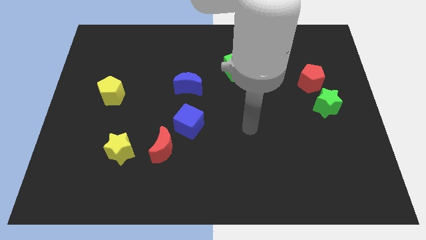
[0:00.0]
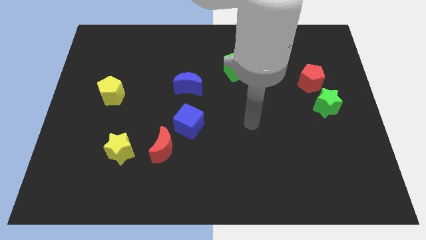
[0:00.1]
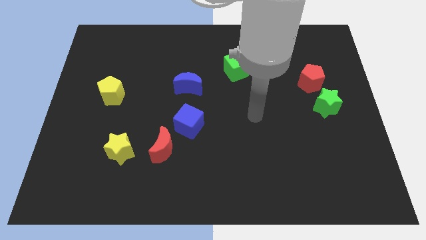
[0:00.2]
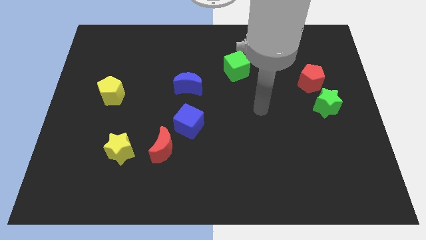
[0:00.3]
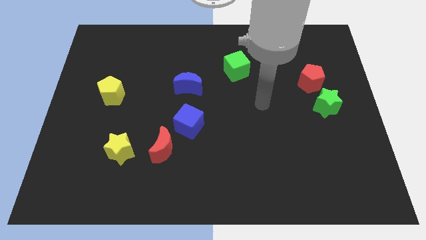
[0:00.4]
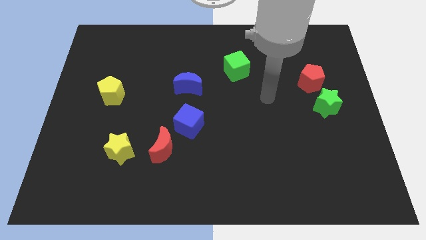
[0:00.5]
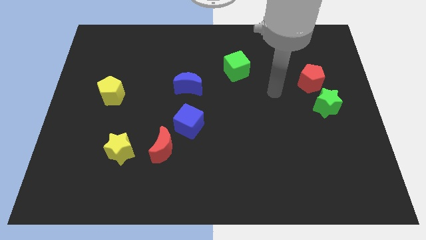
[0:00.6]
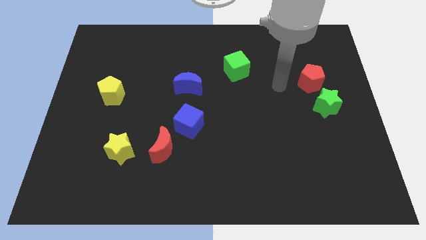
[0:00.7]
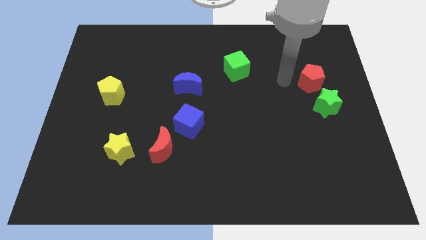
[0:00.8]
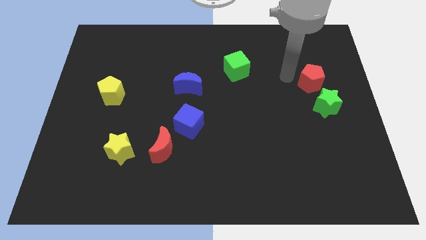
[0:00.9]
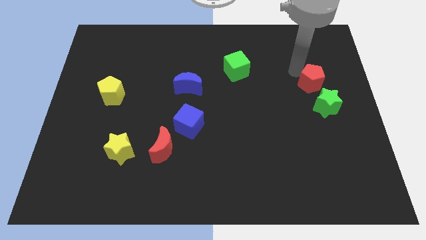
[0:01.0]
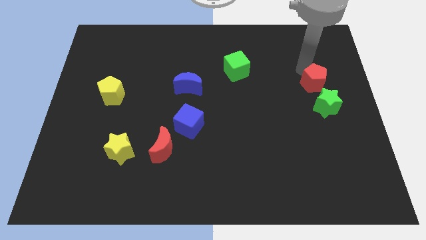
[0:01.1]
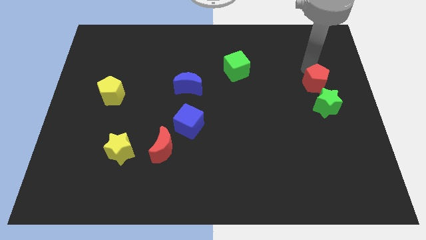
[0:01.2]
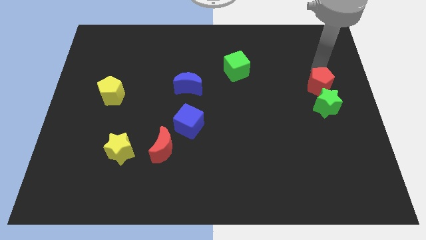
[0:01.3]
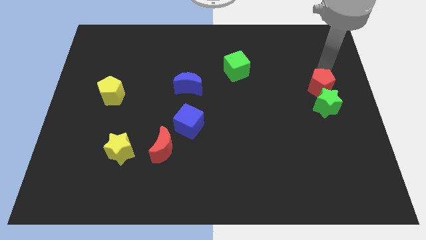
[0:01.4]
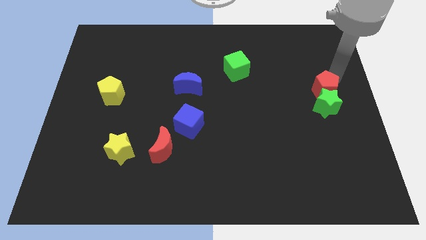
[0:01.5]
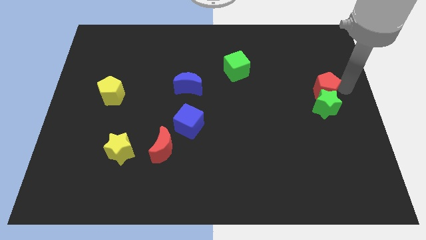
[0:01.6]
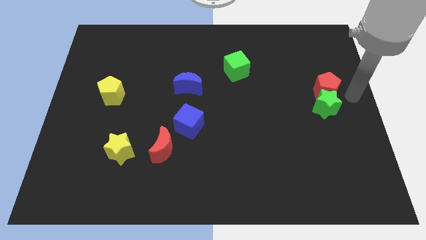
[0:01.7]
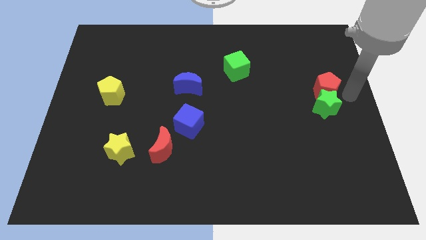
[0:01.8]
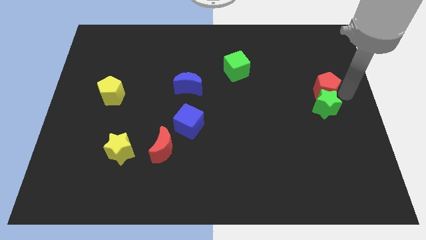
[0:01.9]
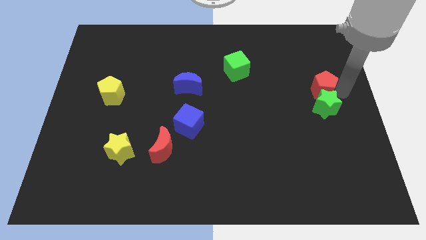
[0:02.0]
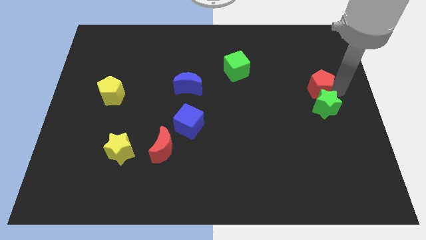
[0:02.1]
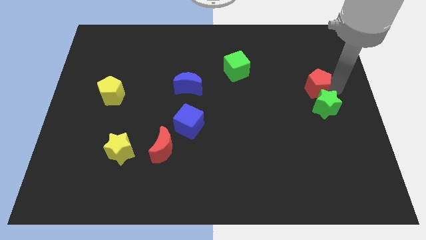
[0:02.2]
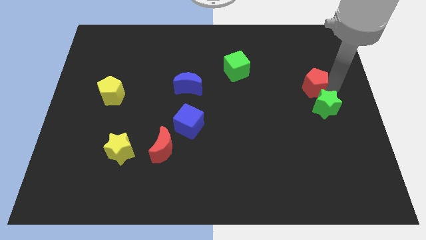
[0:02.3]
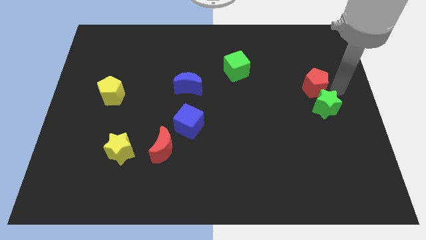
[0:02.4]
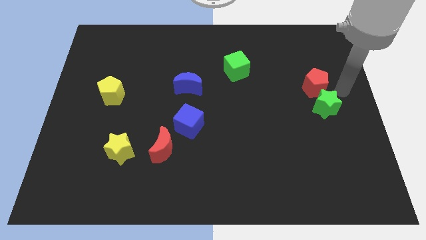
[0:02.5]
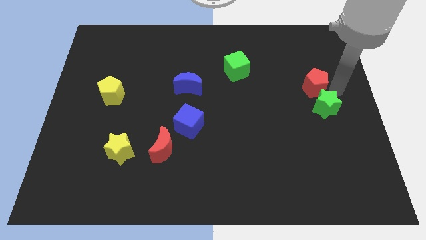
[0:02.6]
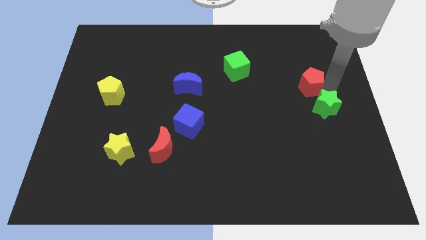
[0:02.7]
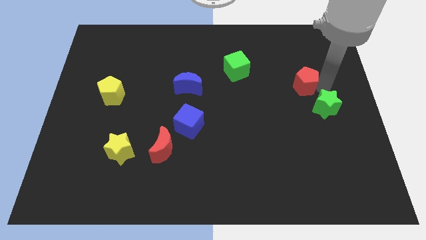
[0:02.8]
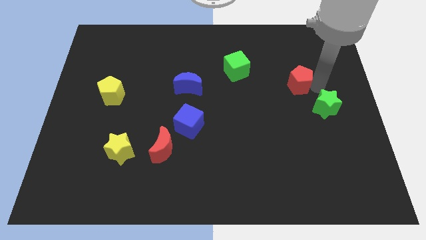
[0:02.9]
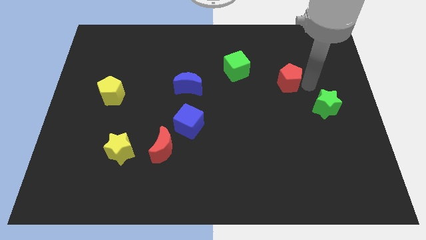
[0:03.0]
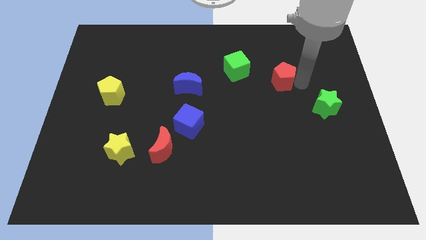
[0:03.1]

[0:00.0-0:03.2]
move the red pentagon a bit to the left

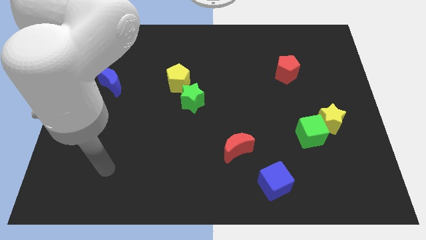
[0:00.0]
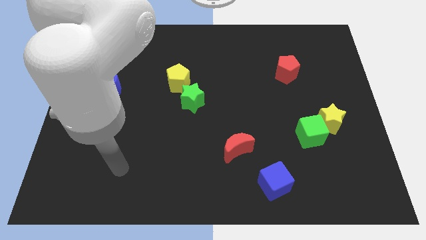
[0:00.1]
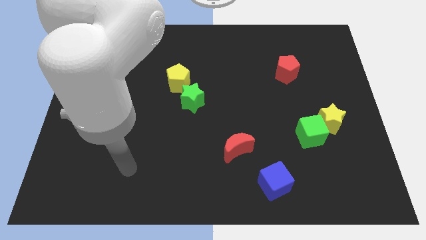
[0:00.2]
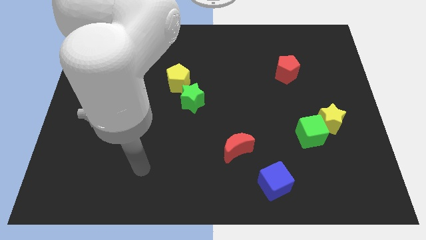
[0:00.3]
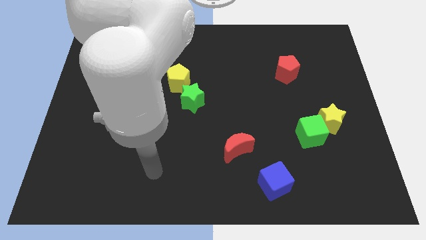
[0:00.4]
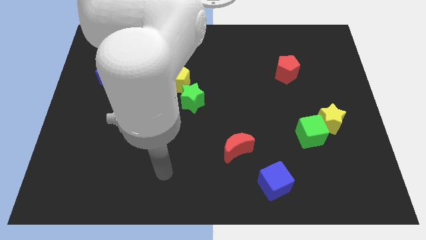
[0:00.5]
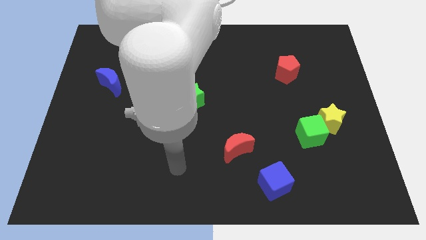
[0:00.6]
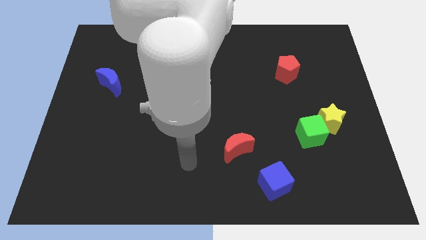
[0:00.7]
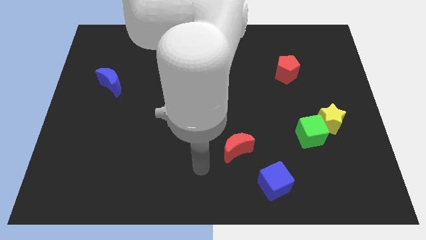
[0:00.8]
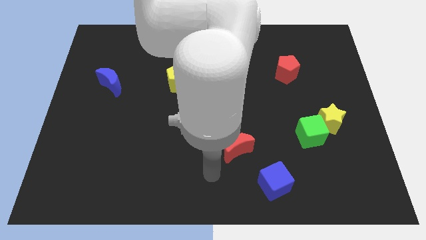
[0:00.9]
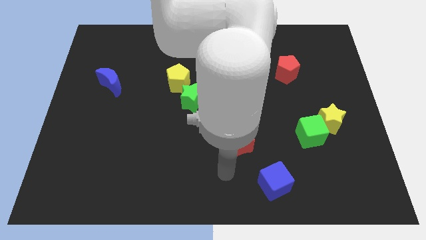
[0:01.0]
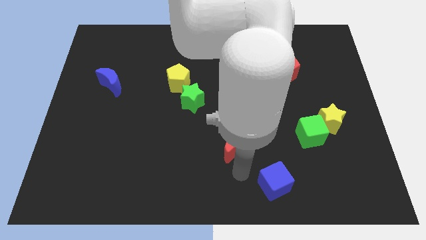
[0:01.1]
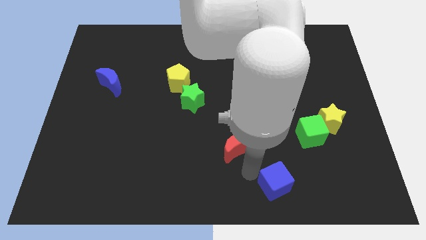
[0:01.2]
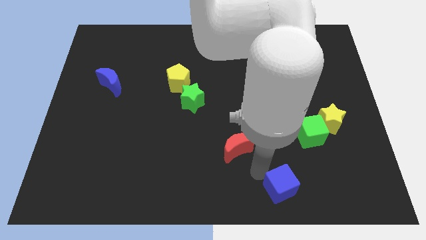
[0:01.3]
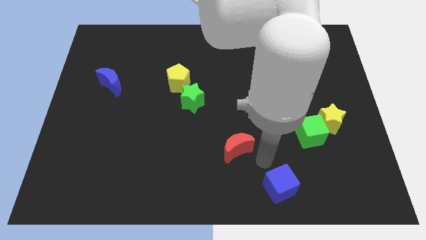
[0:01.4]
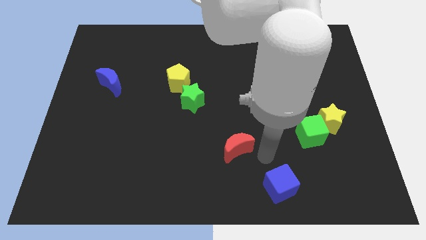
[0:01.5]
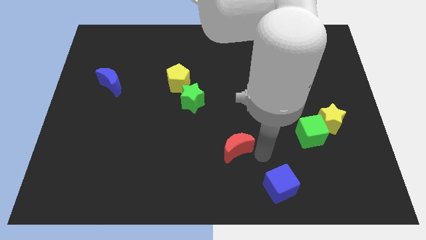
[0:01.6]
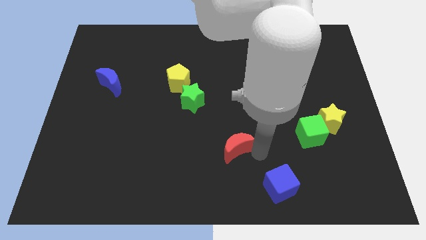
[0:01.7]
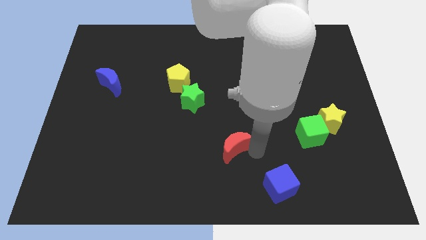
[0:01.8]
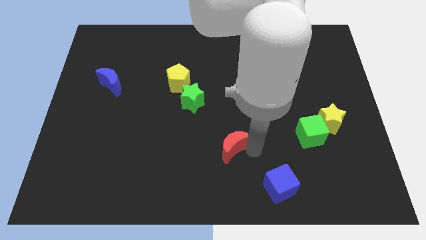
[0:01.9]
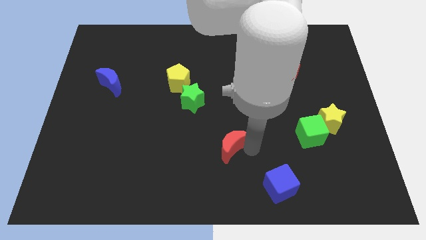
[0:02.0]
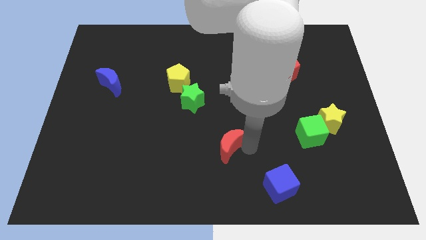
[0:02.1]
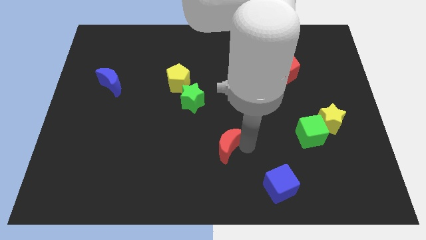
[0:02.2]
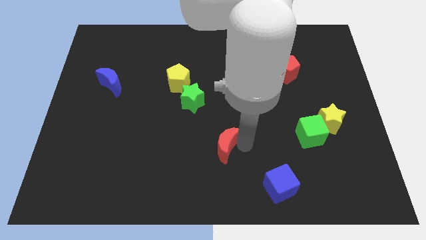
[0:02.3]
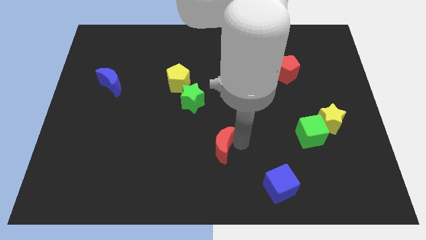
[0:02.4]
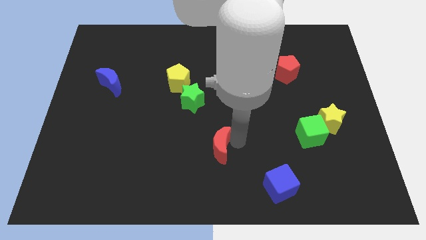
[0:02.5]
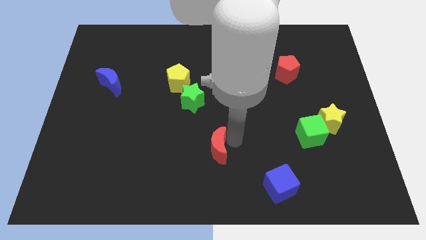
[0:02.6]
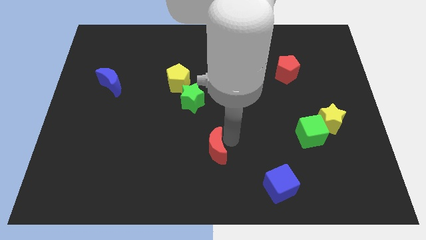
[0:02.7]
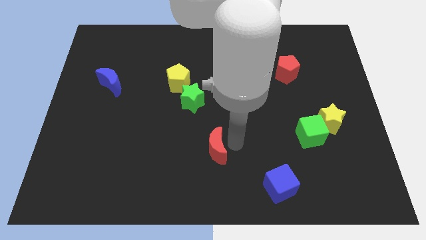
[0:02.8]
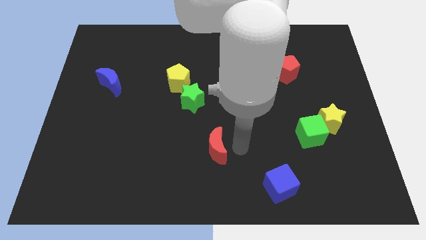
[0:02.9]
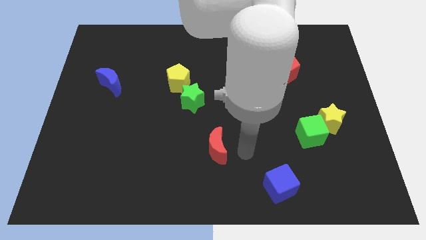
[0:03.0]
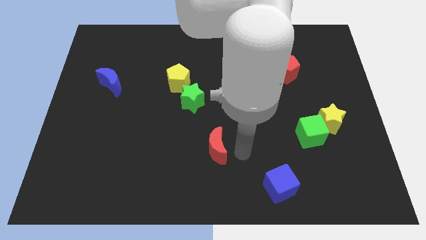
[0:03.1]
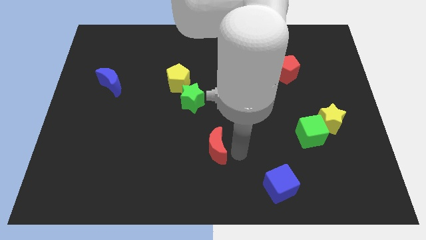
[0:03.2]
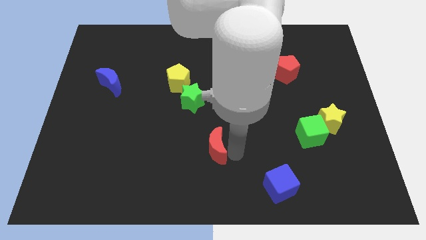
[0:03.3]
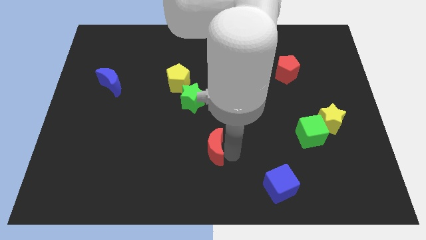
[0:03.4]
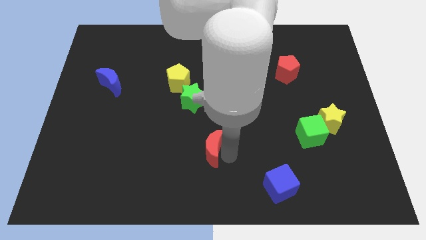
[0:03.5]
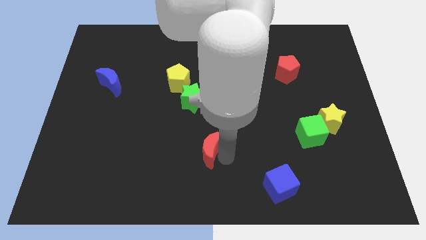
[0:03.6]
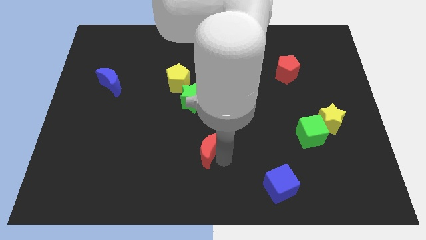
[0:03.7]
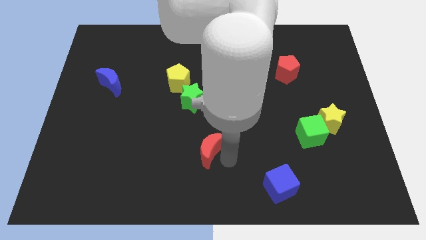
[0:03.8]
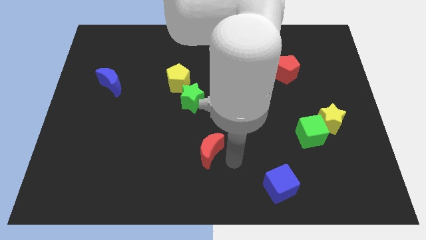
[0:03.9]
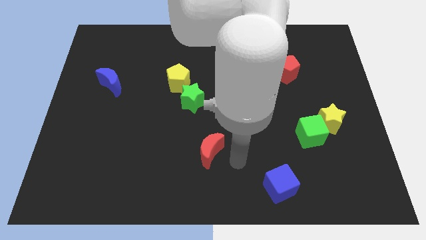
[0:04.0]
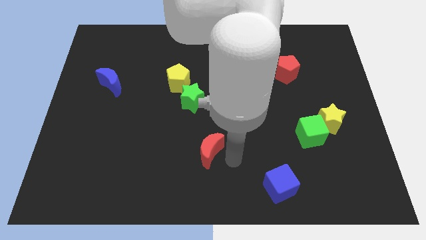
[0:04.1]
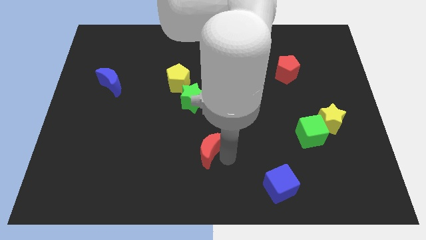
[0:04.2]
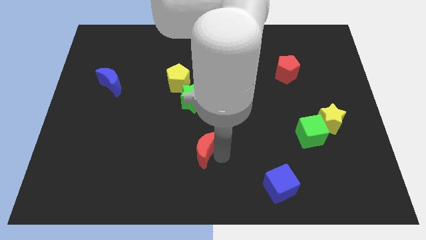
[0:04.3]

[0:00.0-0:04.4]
slide the red moon to the left a little

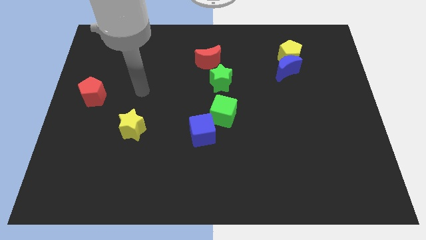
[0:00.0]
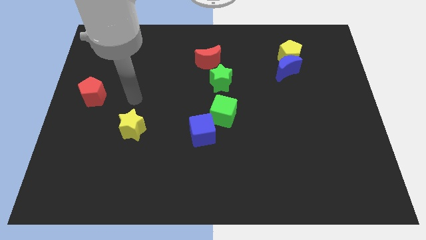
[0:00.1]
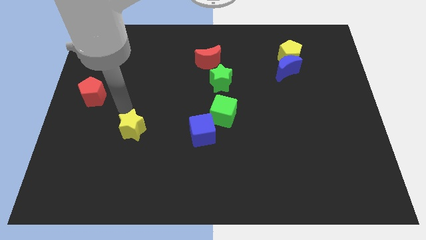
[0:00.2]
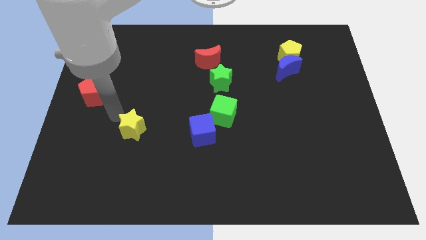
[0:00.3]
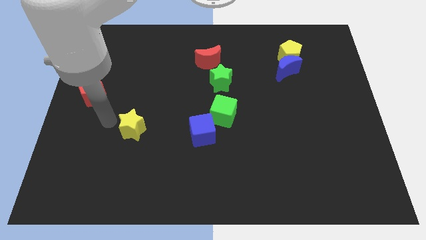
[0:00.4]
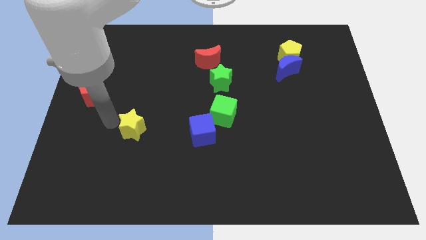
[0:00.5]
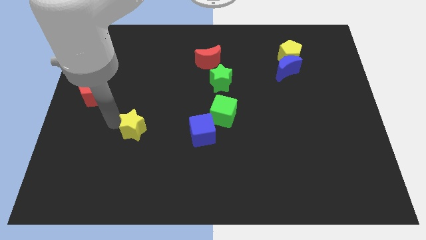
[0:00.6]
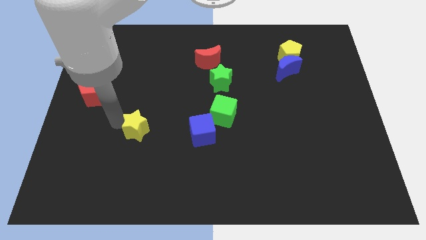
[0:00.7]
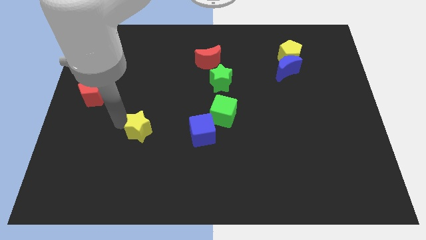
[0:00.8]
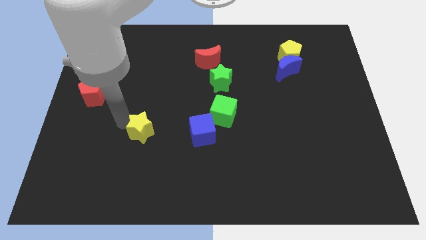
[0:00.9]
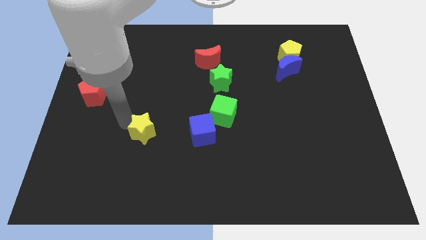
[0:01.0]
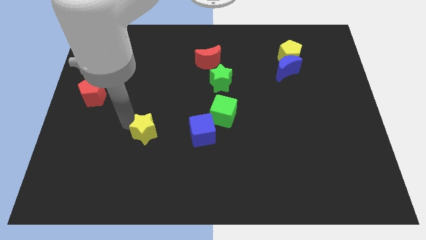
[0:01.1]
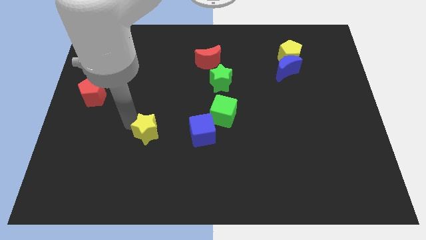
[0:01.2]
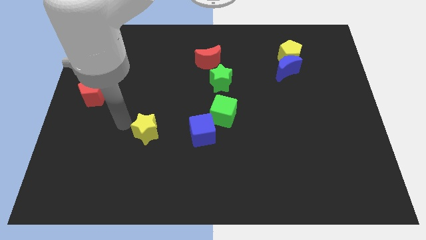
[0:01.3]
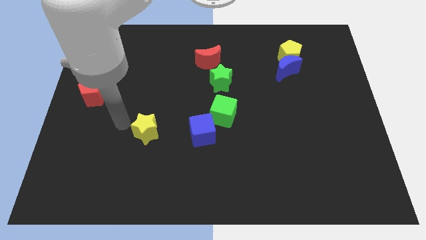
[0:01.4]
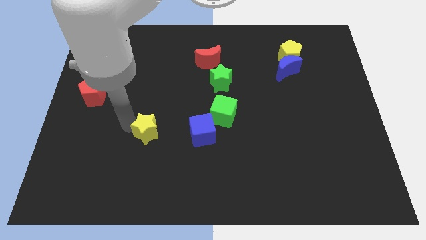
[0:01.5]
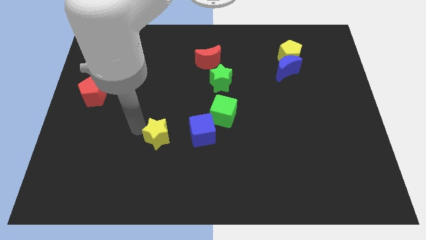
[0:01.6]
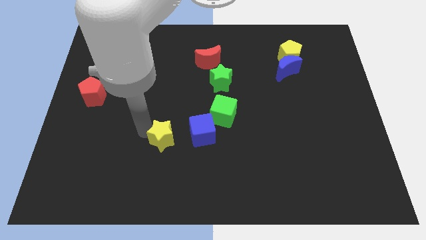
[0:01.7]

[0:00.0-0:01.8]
move the yellow star a little bit right
